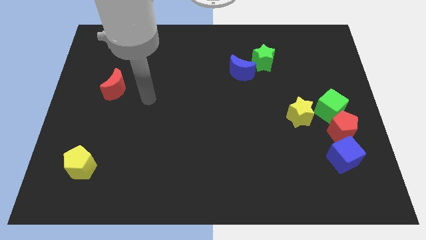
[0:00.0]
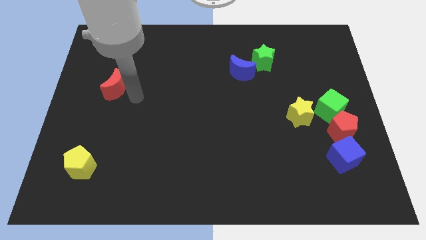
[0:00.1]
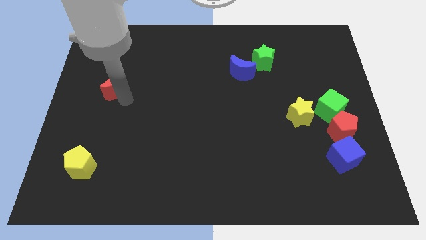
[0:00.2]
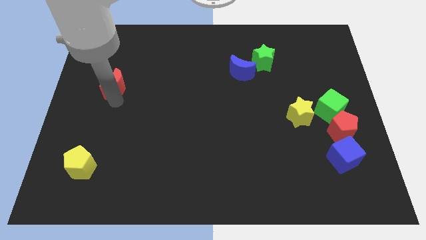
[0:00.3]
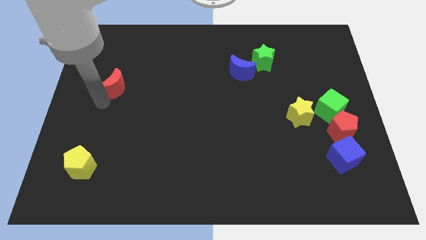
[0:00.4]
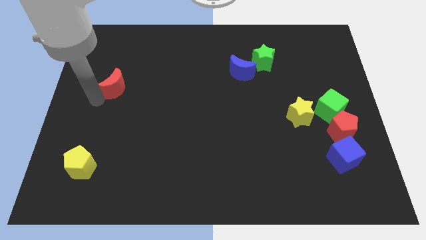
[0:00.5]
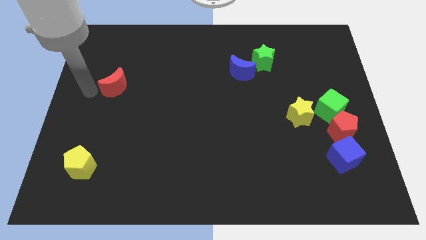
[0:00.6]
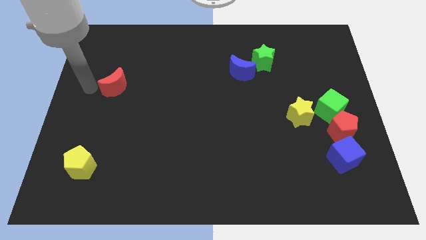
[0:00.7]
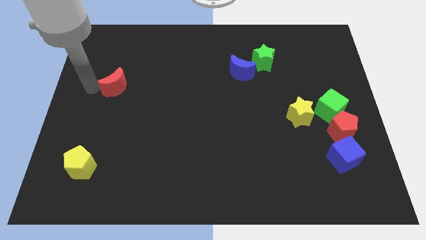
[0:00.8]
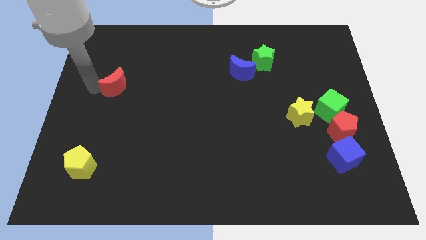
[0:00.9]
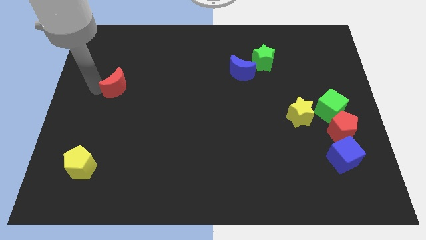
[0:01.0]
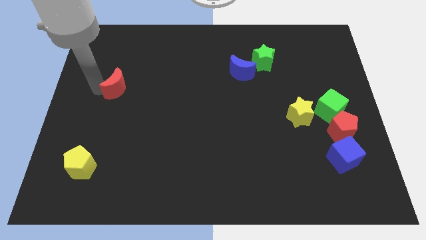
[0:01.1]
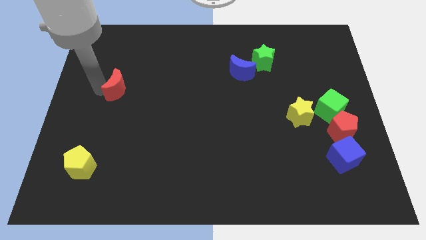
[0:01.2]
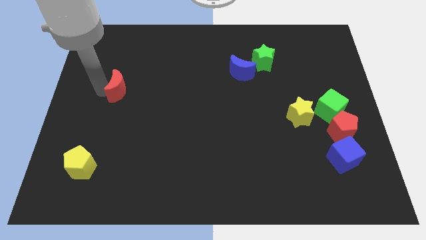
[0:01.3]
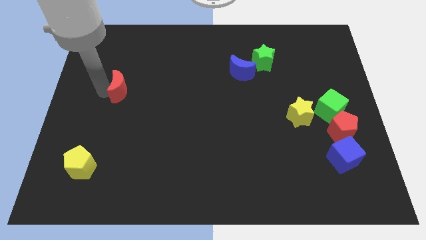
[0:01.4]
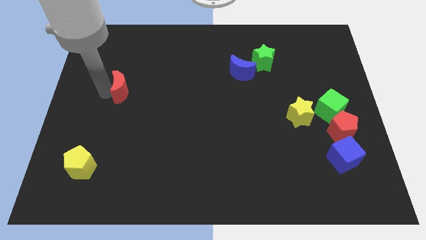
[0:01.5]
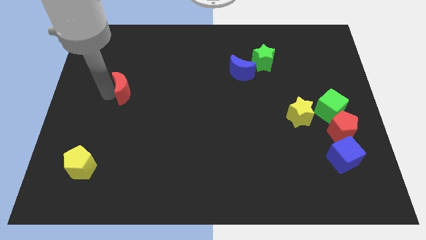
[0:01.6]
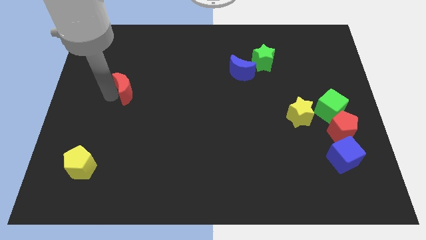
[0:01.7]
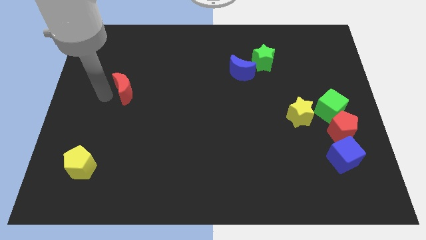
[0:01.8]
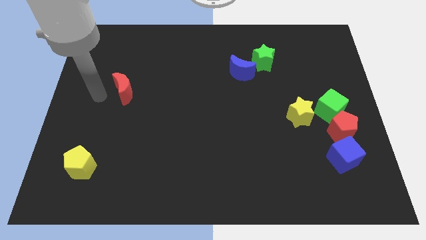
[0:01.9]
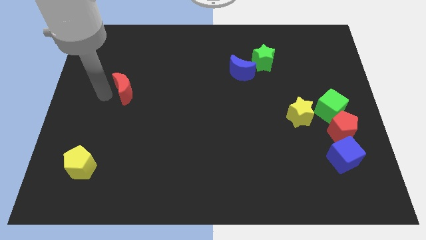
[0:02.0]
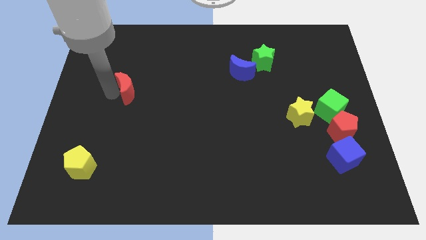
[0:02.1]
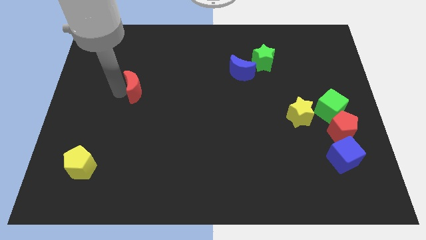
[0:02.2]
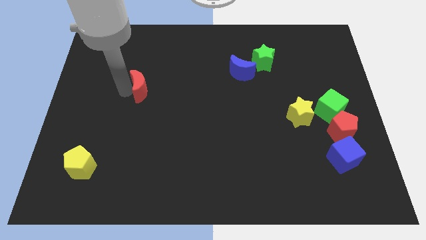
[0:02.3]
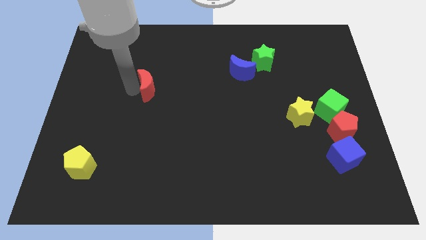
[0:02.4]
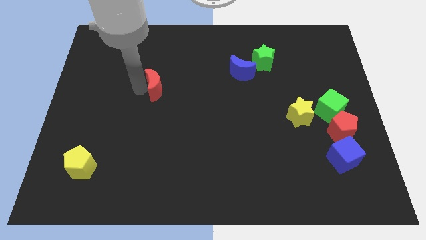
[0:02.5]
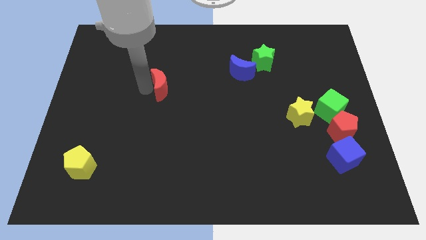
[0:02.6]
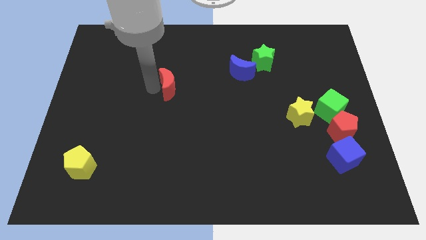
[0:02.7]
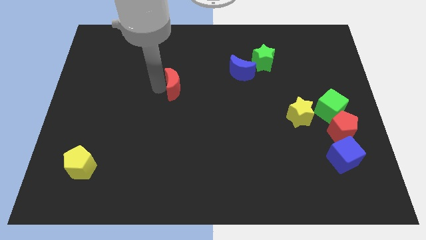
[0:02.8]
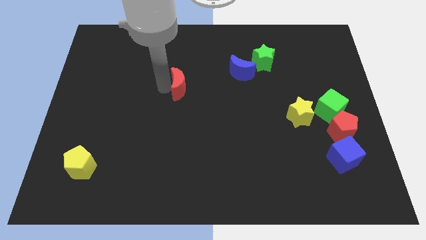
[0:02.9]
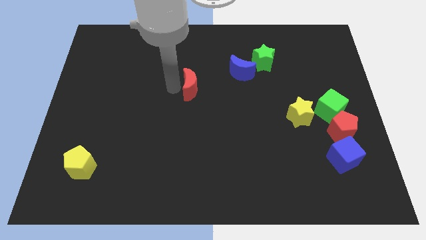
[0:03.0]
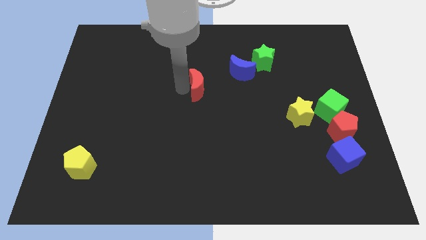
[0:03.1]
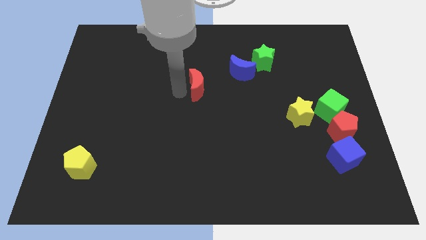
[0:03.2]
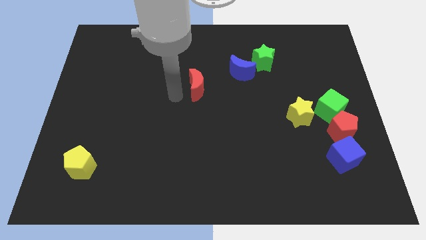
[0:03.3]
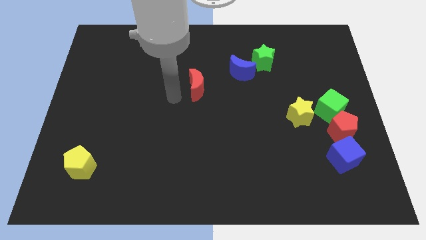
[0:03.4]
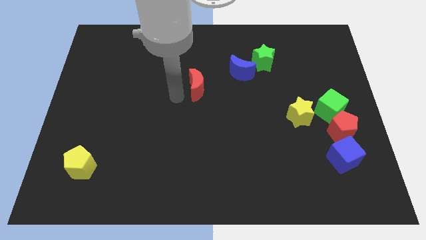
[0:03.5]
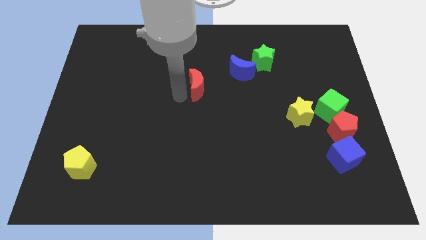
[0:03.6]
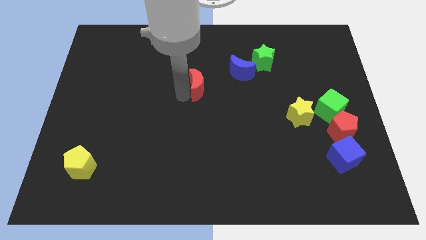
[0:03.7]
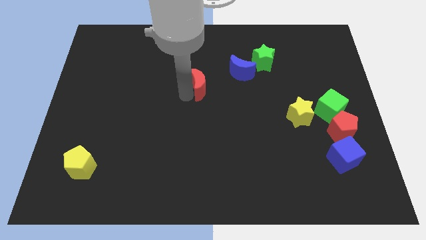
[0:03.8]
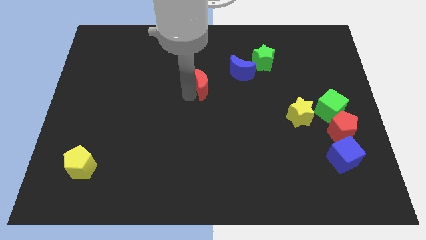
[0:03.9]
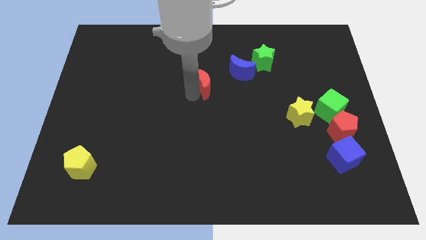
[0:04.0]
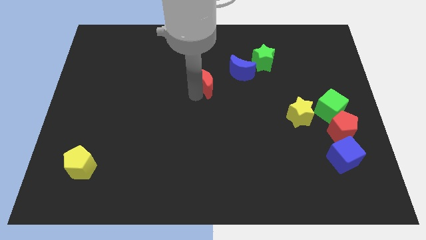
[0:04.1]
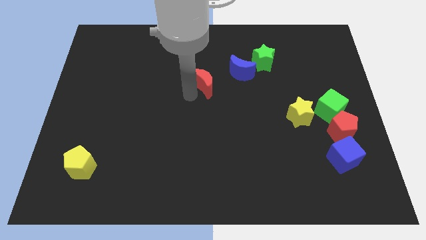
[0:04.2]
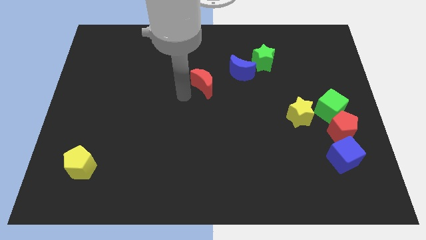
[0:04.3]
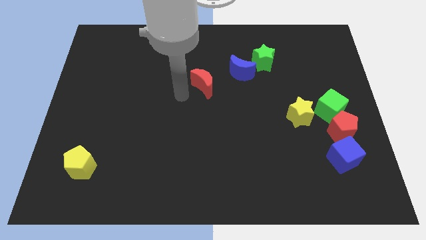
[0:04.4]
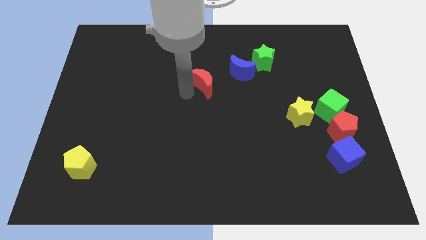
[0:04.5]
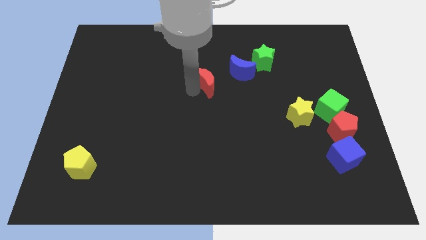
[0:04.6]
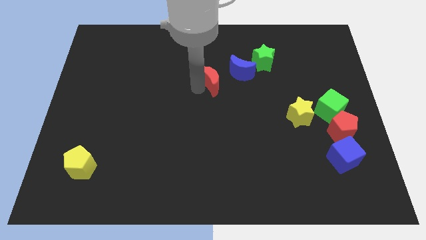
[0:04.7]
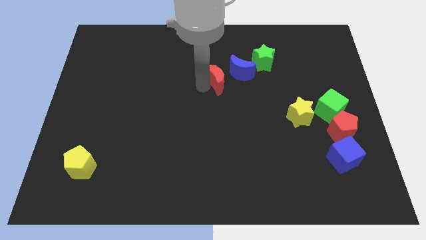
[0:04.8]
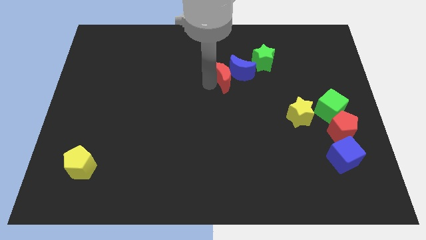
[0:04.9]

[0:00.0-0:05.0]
move the red moon next to the blue moon

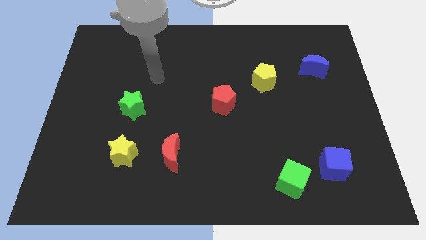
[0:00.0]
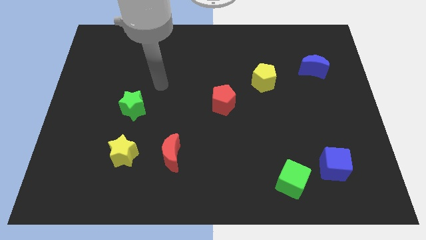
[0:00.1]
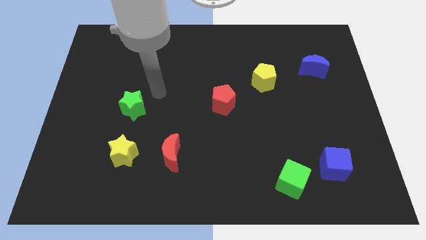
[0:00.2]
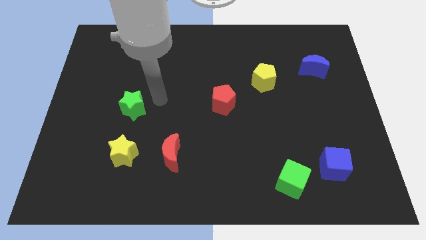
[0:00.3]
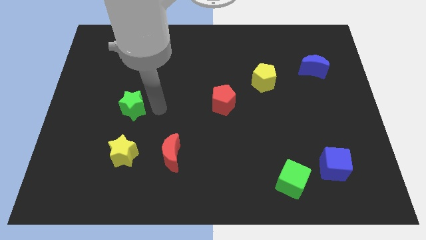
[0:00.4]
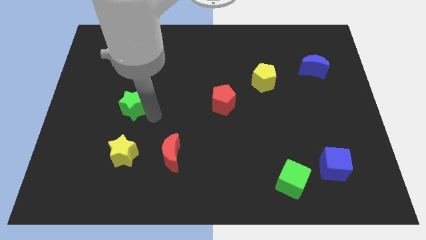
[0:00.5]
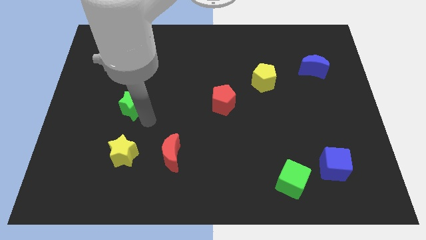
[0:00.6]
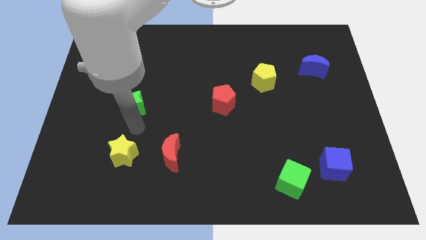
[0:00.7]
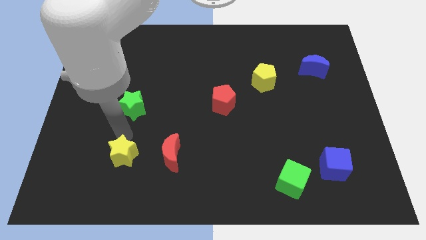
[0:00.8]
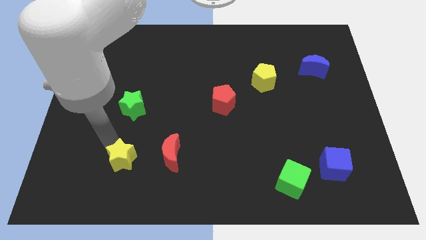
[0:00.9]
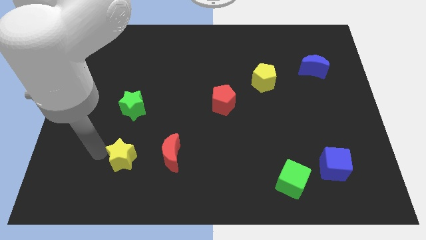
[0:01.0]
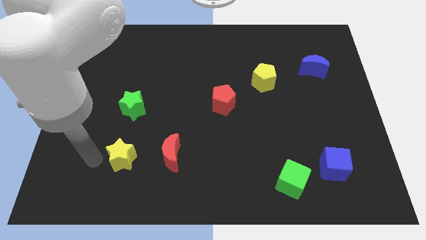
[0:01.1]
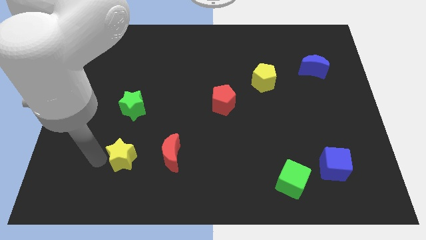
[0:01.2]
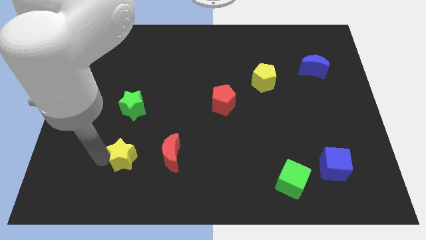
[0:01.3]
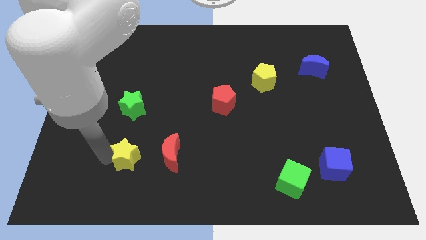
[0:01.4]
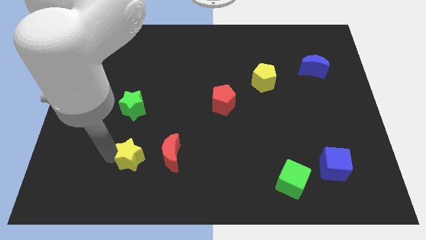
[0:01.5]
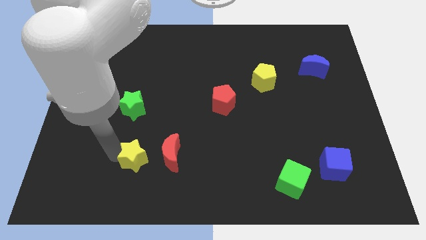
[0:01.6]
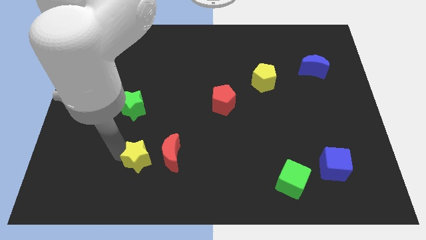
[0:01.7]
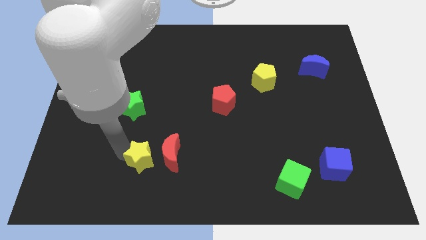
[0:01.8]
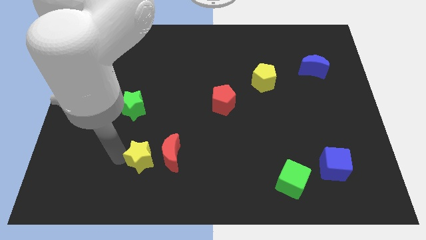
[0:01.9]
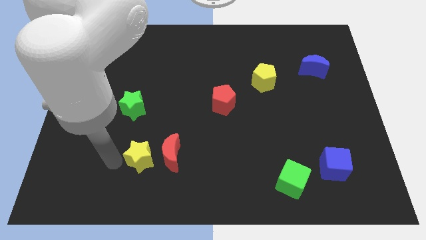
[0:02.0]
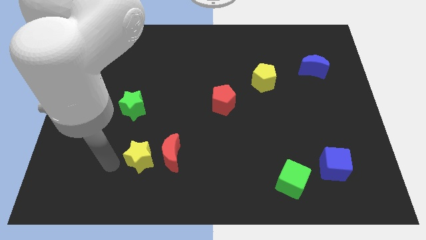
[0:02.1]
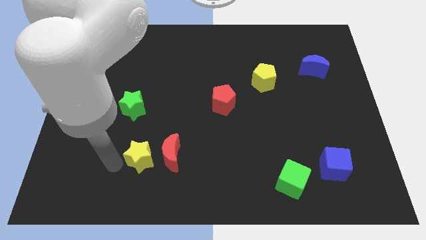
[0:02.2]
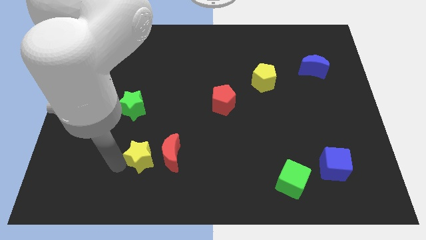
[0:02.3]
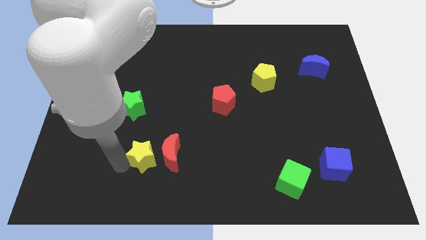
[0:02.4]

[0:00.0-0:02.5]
move the yellow star close to the red moon
